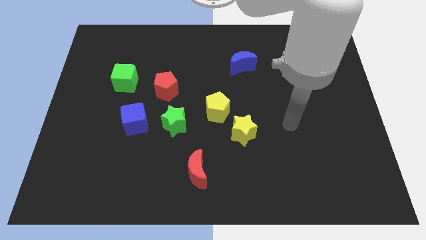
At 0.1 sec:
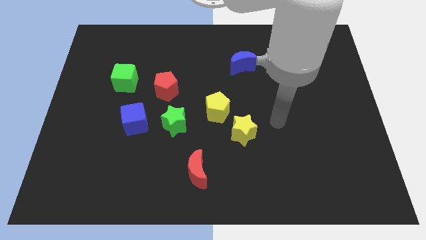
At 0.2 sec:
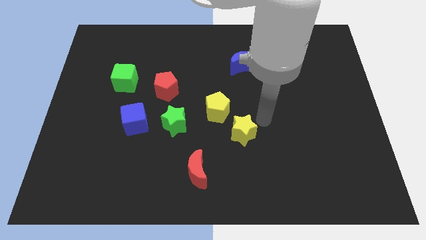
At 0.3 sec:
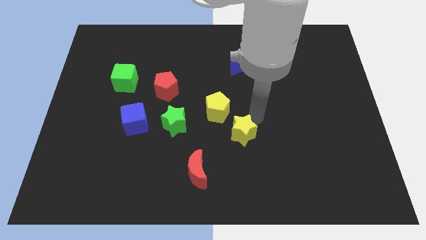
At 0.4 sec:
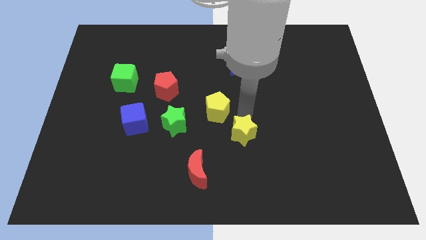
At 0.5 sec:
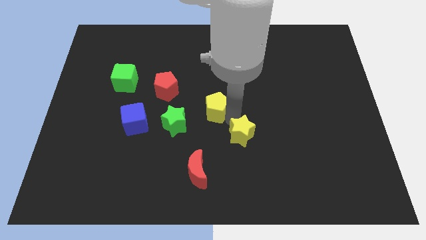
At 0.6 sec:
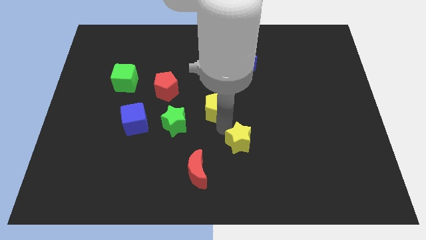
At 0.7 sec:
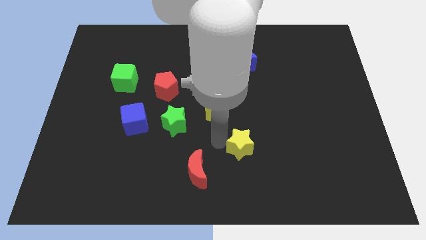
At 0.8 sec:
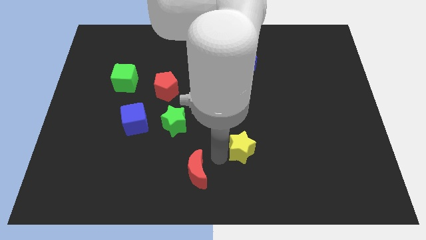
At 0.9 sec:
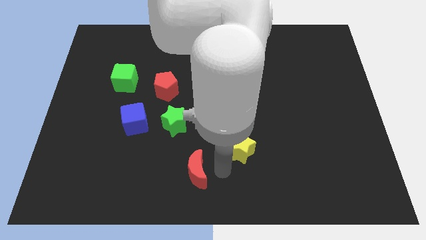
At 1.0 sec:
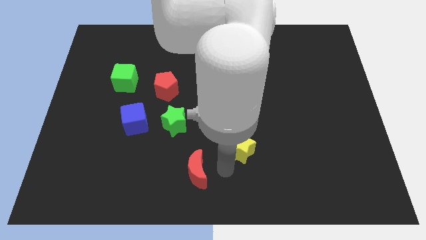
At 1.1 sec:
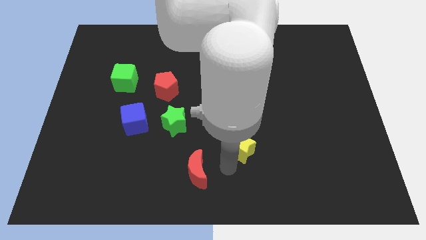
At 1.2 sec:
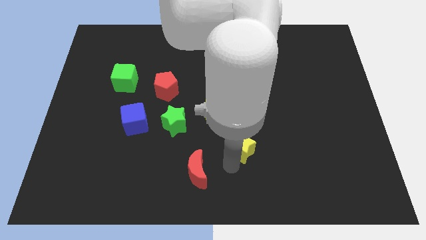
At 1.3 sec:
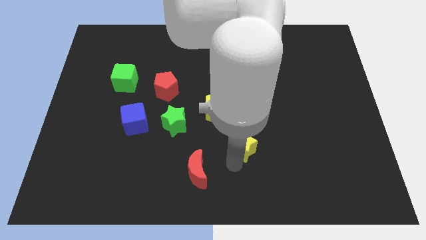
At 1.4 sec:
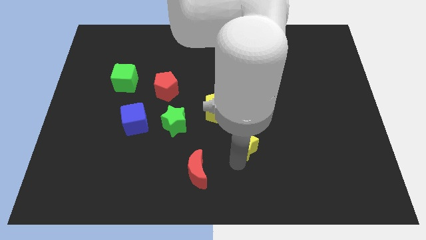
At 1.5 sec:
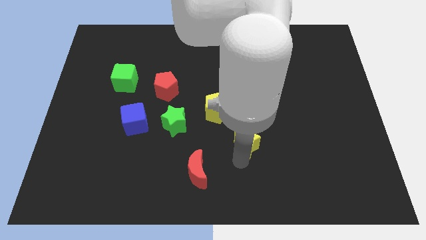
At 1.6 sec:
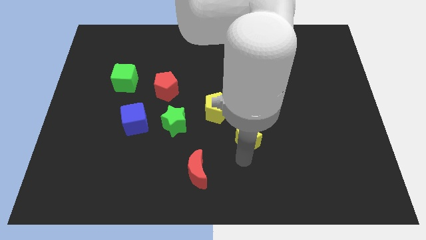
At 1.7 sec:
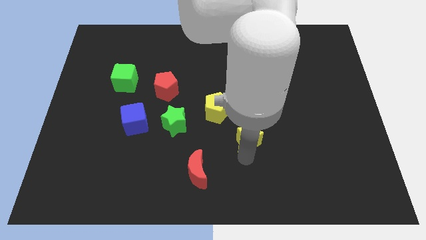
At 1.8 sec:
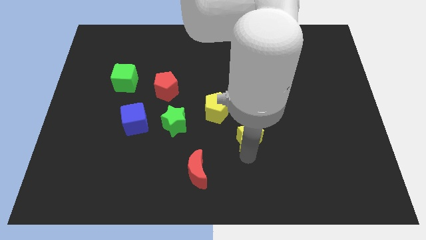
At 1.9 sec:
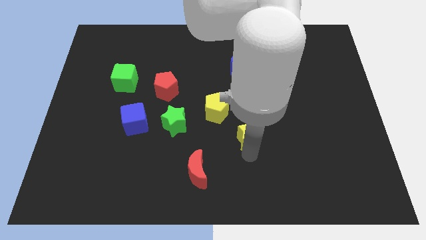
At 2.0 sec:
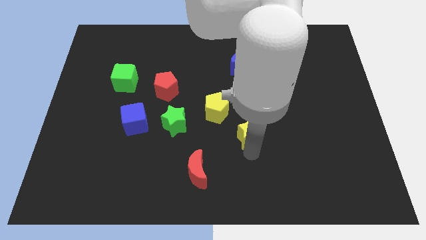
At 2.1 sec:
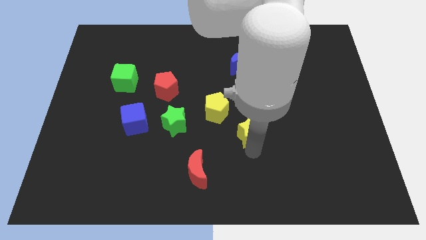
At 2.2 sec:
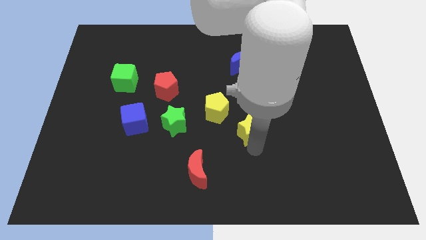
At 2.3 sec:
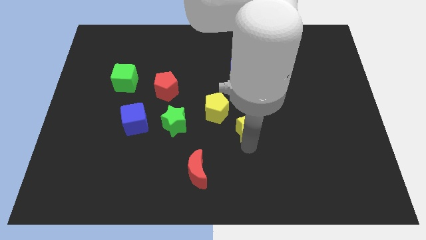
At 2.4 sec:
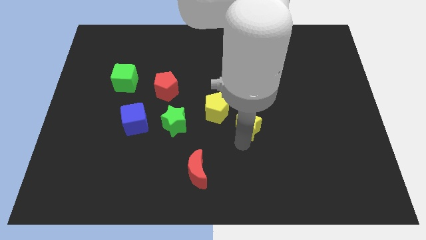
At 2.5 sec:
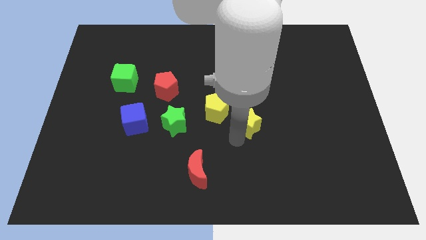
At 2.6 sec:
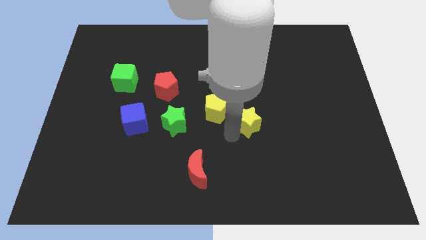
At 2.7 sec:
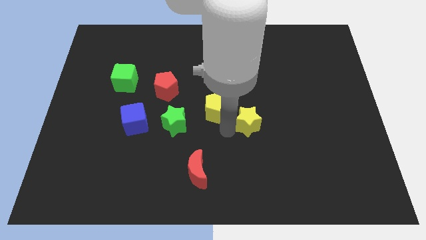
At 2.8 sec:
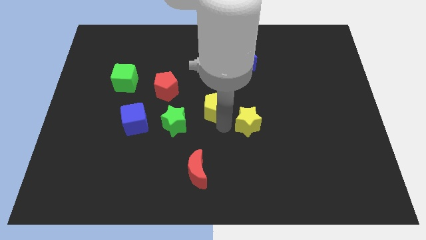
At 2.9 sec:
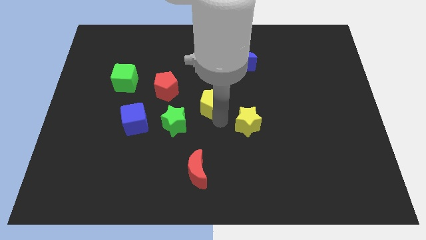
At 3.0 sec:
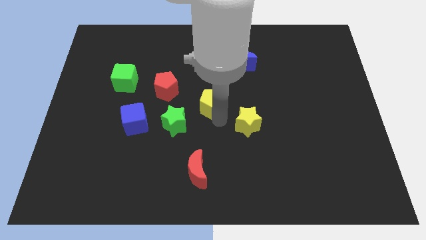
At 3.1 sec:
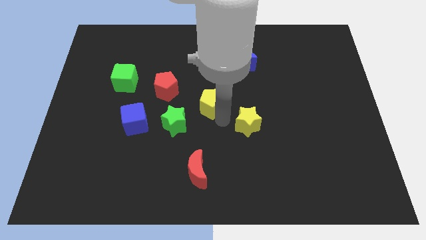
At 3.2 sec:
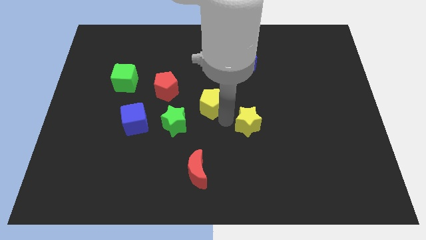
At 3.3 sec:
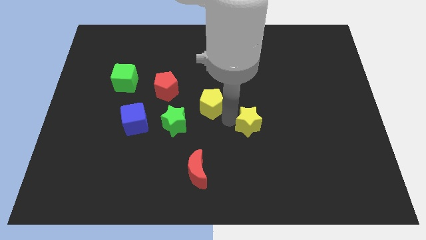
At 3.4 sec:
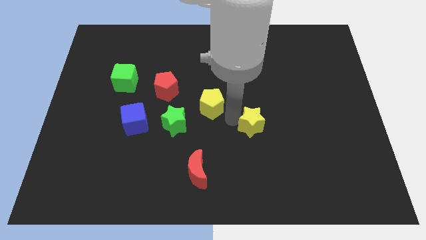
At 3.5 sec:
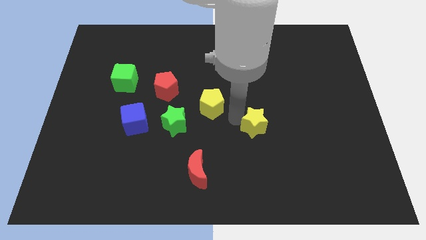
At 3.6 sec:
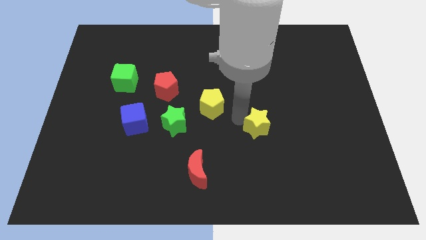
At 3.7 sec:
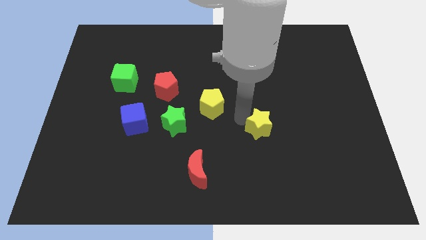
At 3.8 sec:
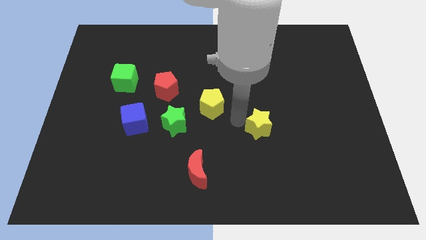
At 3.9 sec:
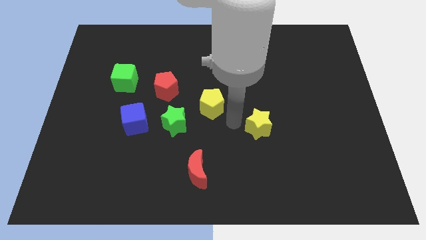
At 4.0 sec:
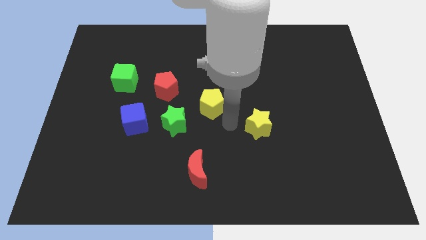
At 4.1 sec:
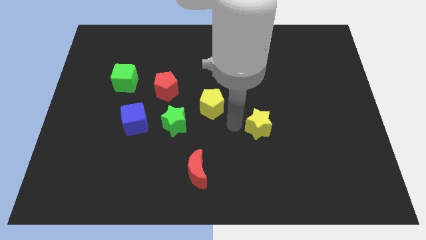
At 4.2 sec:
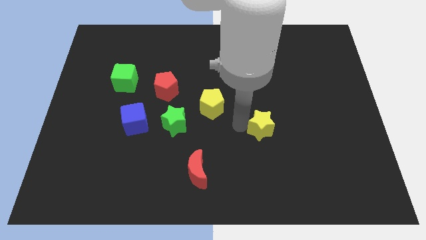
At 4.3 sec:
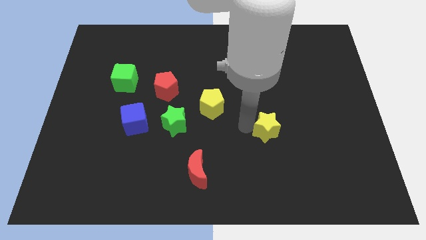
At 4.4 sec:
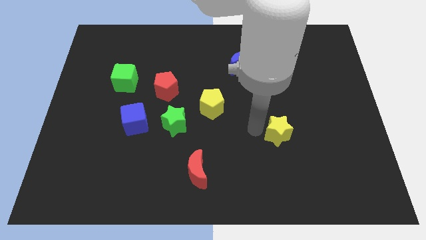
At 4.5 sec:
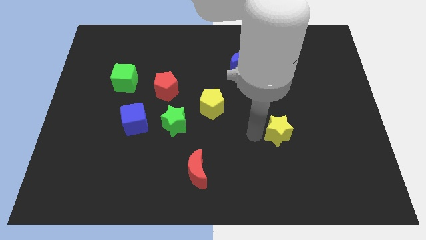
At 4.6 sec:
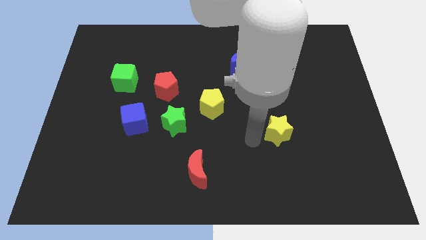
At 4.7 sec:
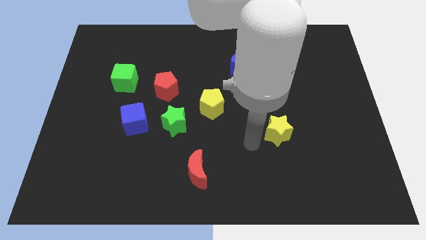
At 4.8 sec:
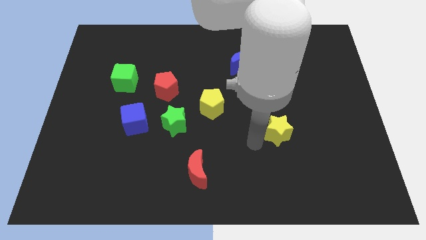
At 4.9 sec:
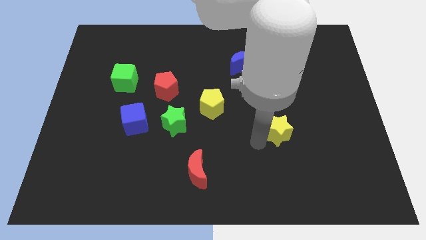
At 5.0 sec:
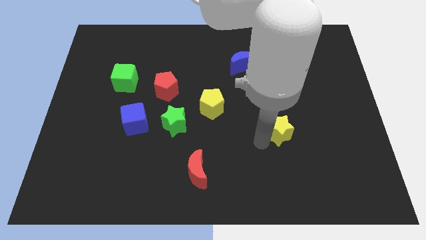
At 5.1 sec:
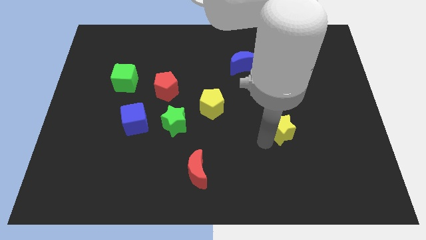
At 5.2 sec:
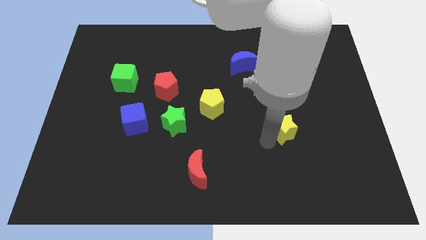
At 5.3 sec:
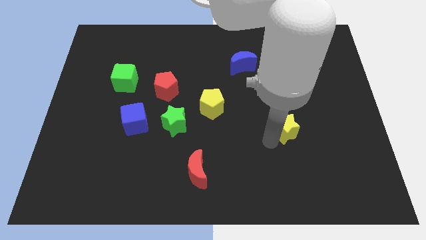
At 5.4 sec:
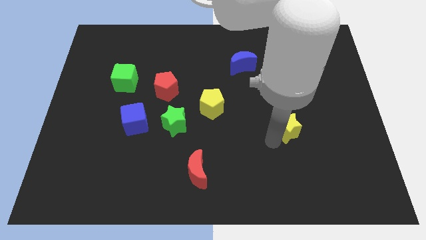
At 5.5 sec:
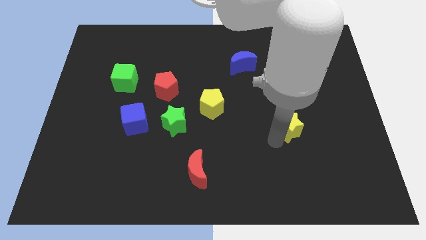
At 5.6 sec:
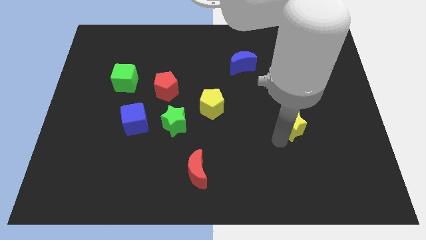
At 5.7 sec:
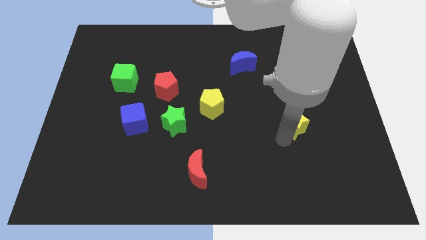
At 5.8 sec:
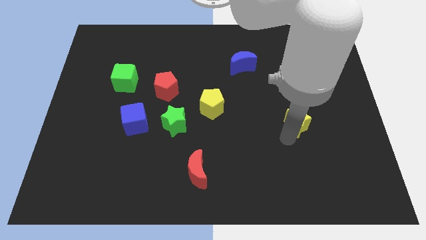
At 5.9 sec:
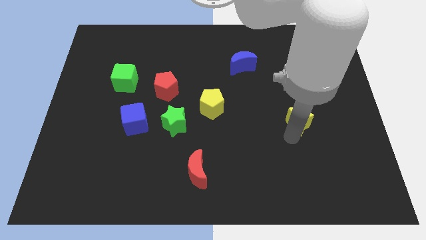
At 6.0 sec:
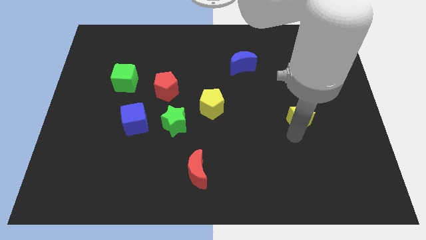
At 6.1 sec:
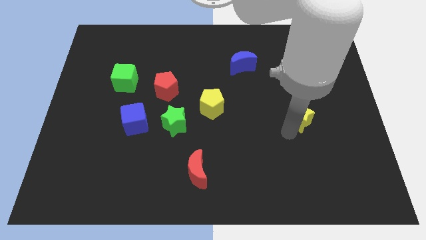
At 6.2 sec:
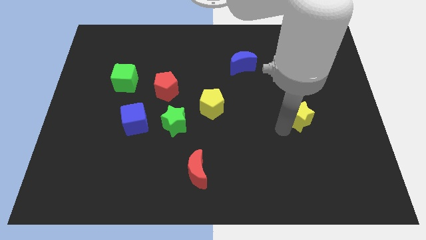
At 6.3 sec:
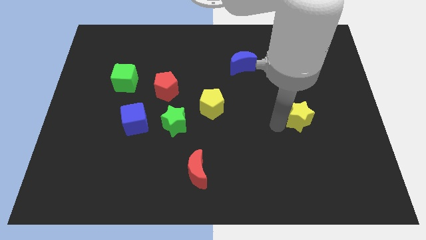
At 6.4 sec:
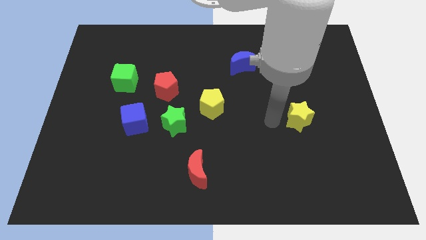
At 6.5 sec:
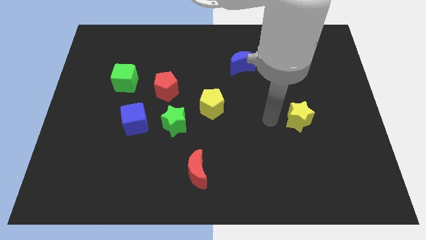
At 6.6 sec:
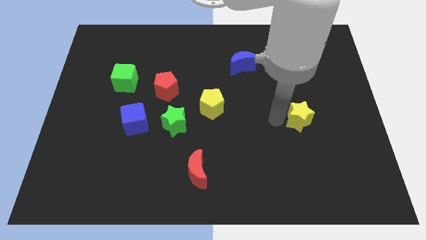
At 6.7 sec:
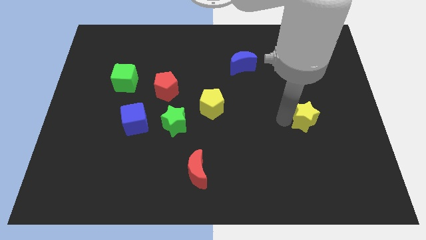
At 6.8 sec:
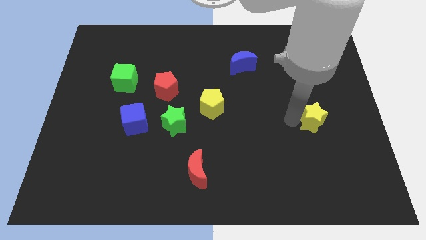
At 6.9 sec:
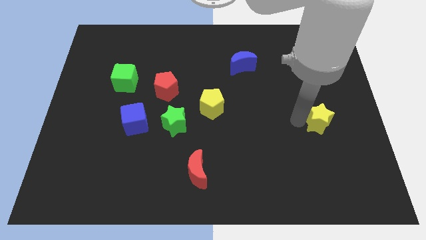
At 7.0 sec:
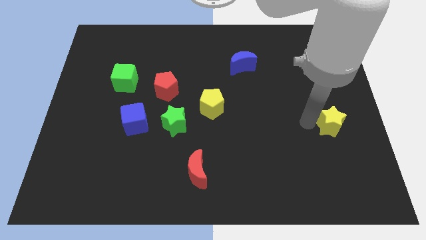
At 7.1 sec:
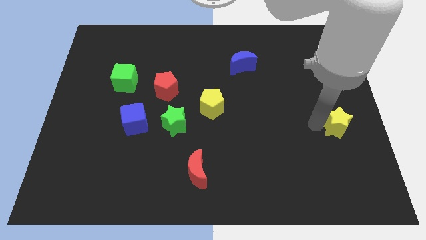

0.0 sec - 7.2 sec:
put the yellow star to the right side of the board
